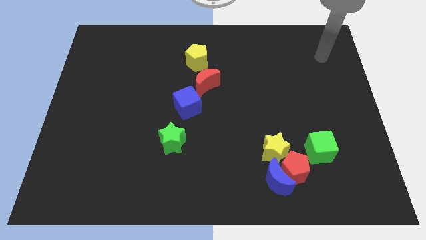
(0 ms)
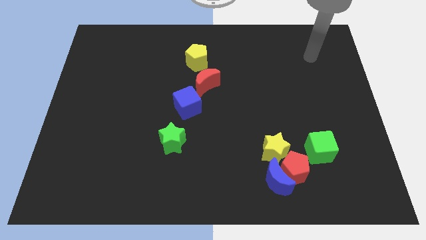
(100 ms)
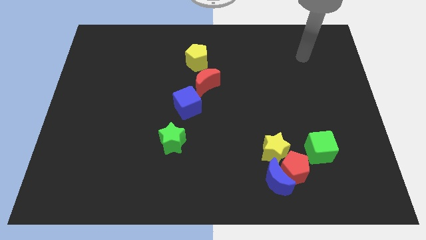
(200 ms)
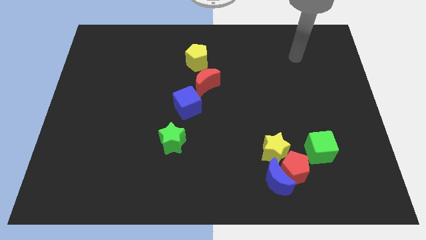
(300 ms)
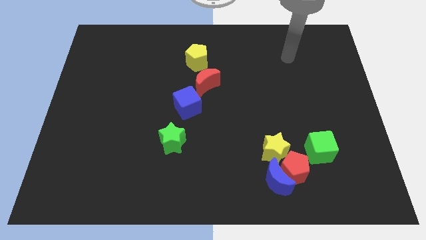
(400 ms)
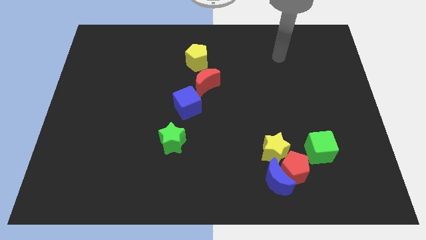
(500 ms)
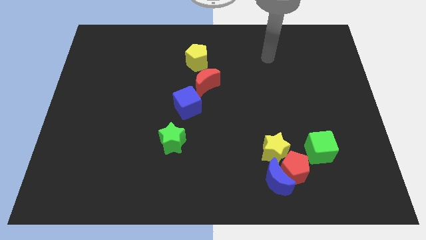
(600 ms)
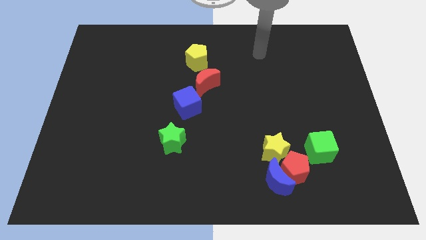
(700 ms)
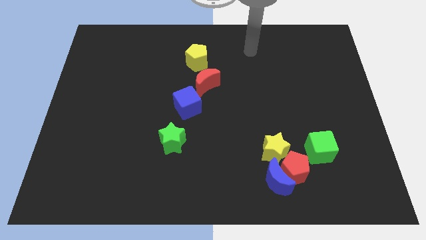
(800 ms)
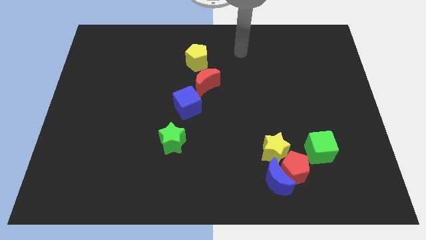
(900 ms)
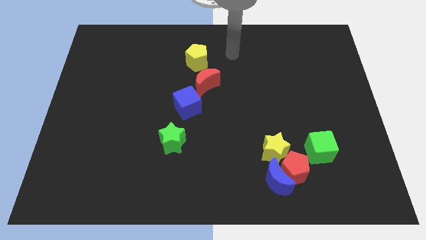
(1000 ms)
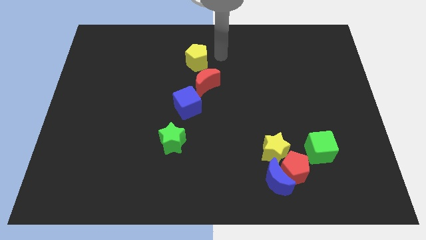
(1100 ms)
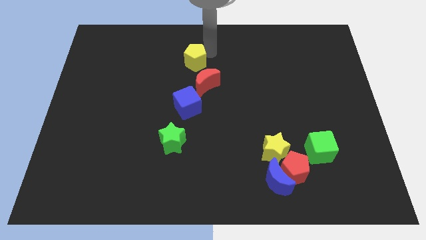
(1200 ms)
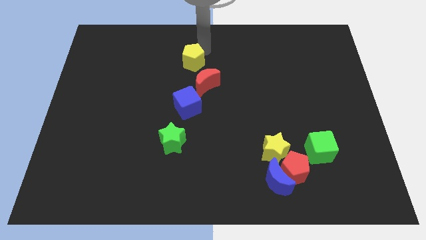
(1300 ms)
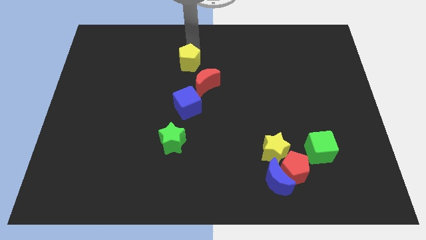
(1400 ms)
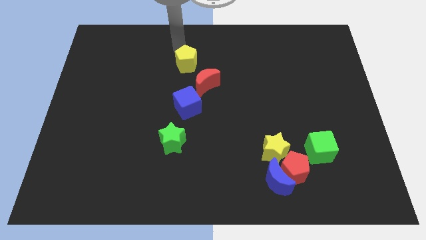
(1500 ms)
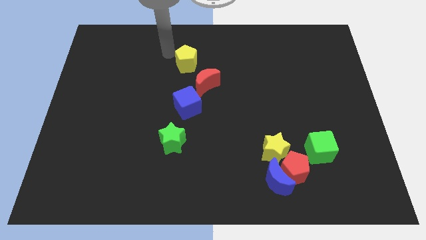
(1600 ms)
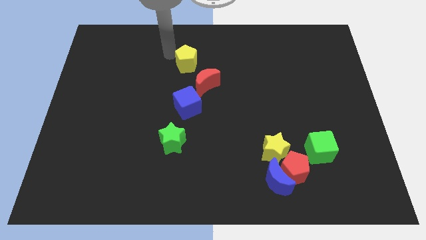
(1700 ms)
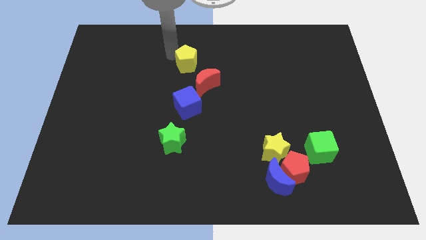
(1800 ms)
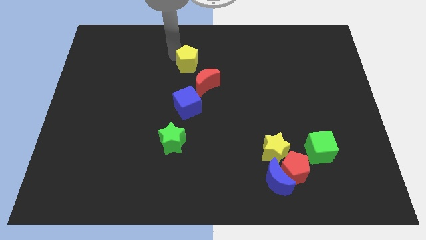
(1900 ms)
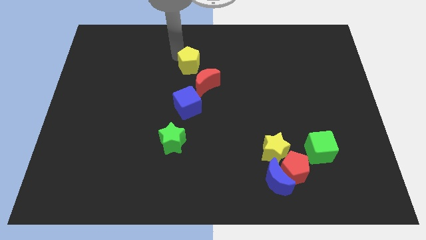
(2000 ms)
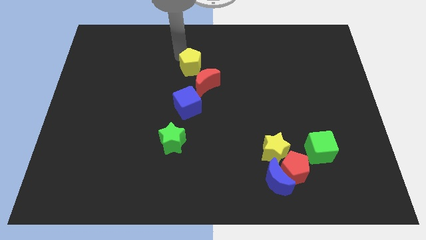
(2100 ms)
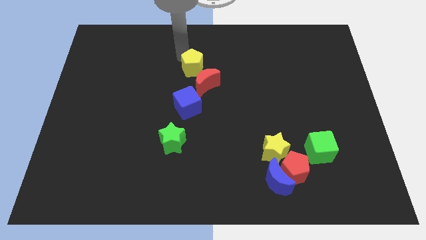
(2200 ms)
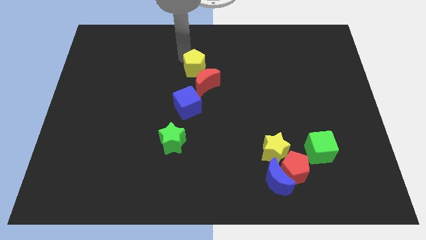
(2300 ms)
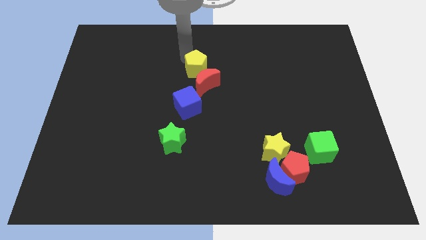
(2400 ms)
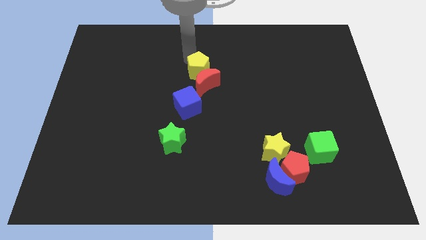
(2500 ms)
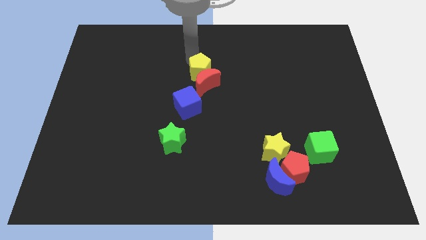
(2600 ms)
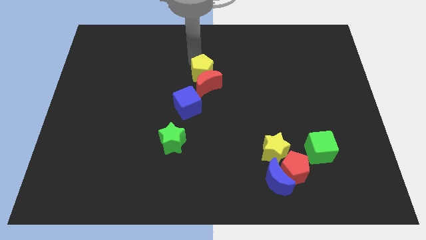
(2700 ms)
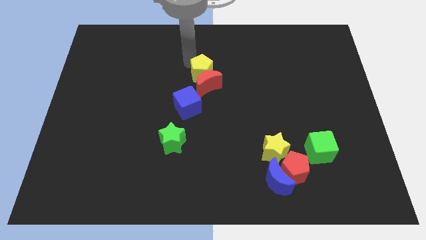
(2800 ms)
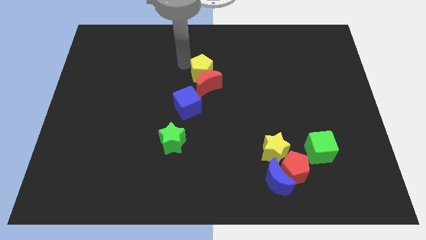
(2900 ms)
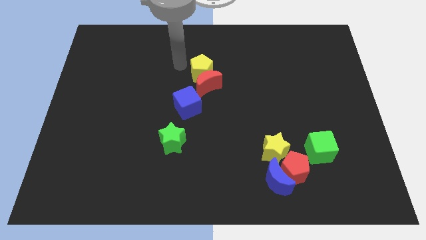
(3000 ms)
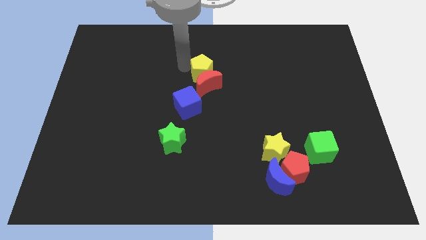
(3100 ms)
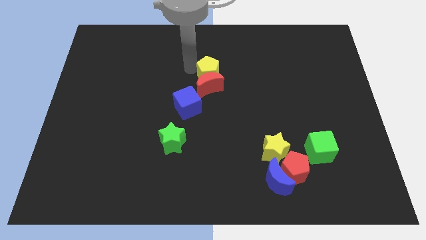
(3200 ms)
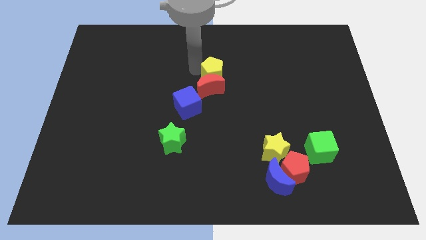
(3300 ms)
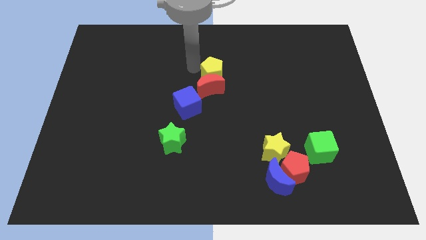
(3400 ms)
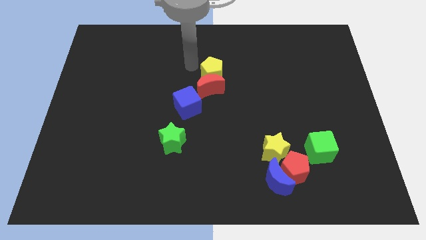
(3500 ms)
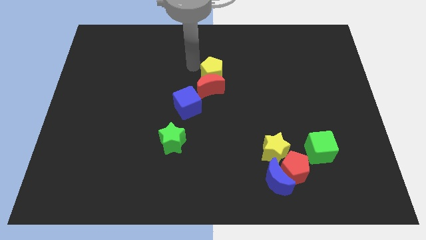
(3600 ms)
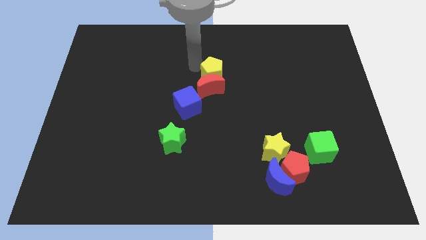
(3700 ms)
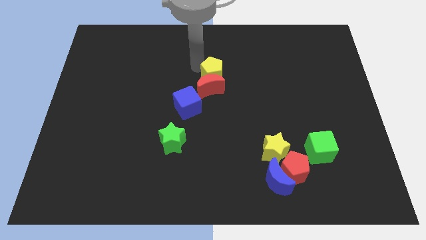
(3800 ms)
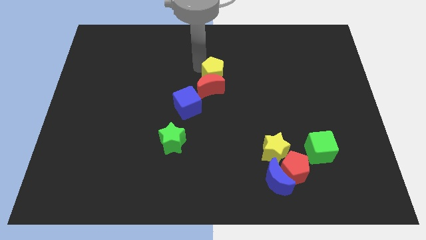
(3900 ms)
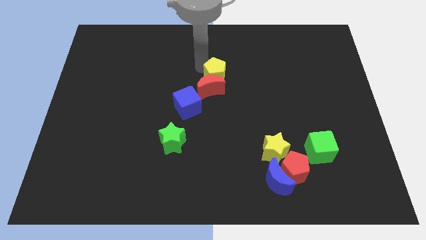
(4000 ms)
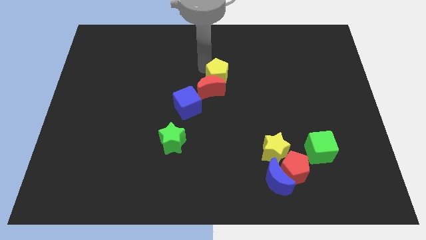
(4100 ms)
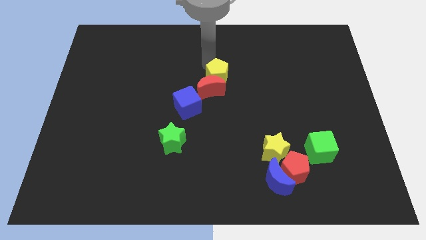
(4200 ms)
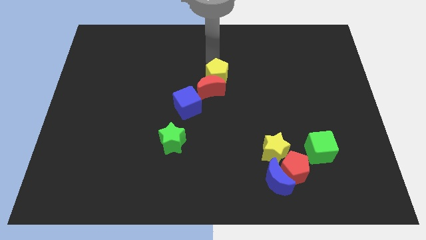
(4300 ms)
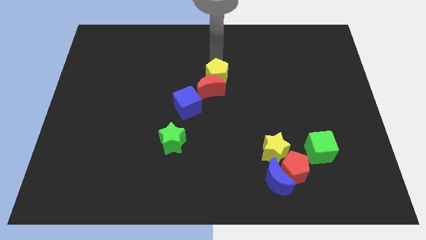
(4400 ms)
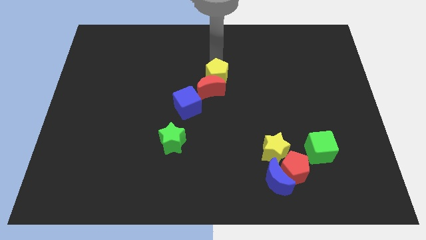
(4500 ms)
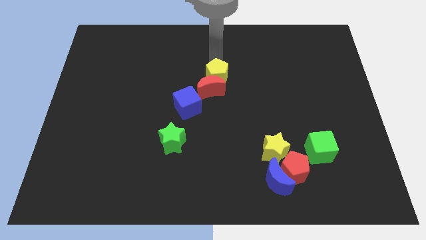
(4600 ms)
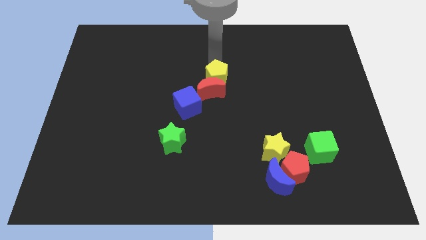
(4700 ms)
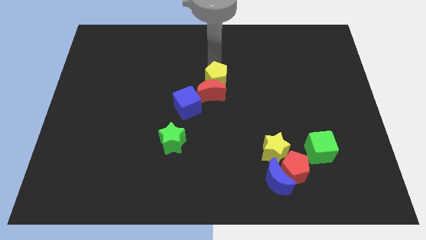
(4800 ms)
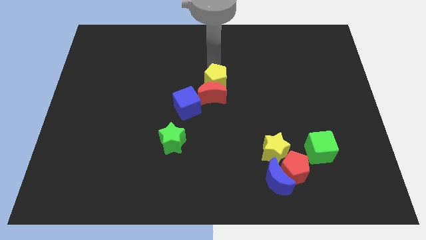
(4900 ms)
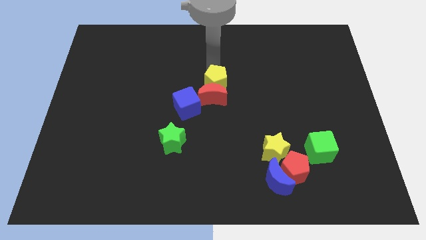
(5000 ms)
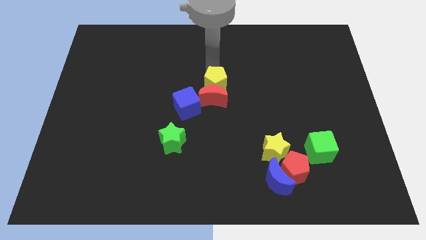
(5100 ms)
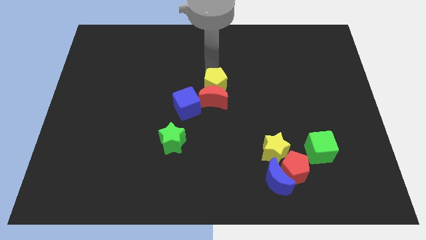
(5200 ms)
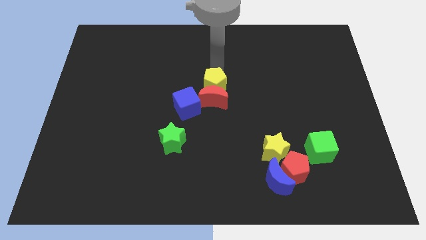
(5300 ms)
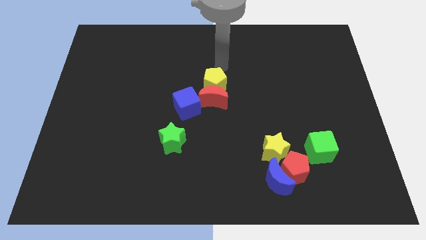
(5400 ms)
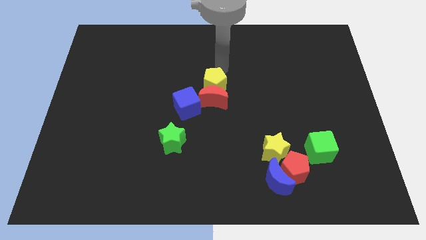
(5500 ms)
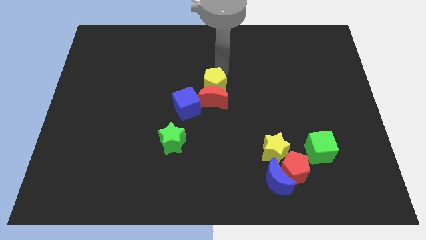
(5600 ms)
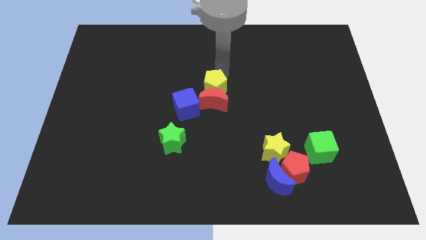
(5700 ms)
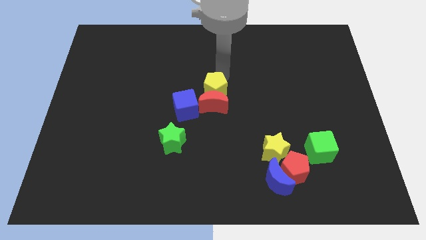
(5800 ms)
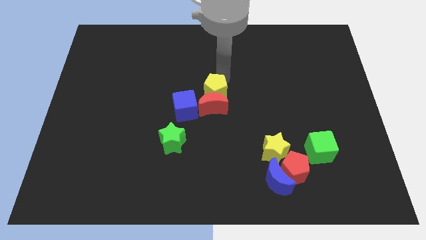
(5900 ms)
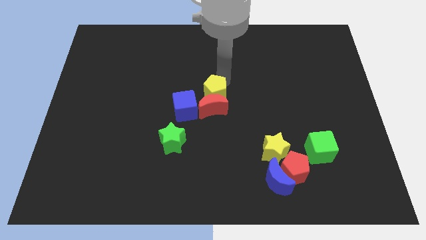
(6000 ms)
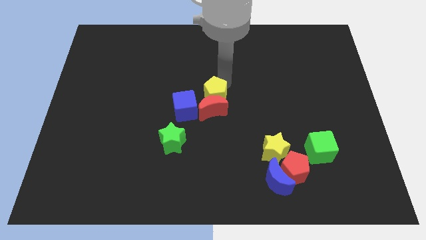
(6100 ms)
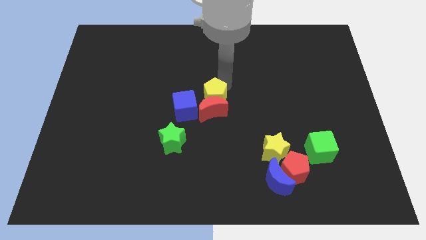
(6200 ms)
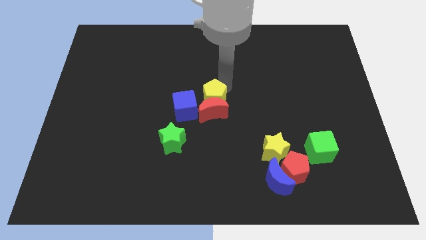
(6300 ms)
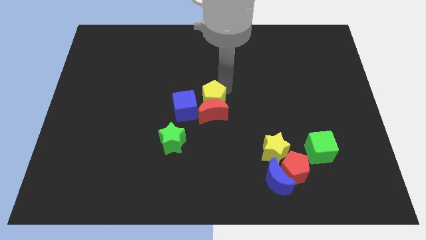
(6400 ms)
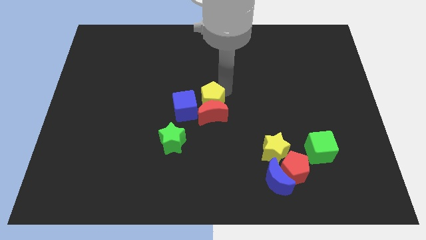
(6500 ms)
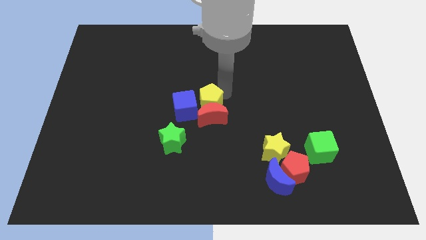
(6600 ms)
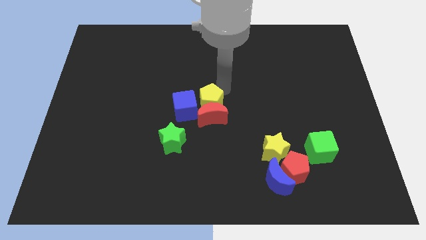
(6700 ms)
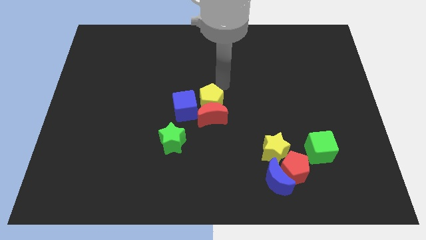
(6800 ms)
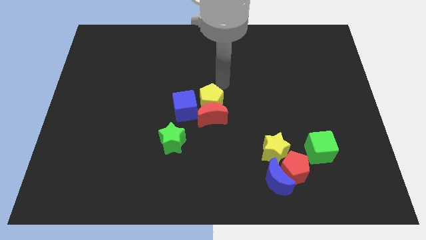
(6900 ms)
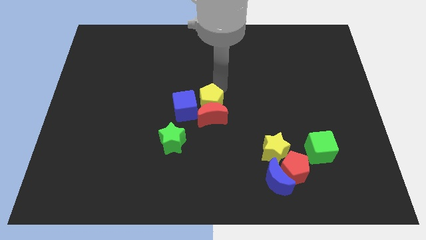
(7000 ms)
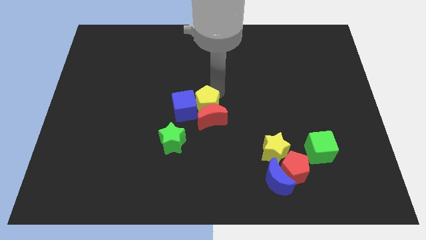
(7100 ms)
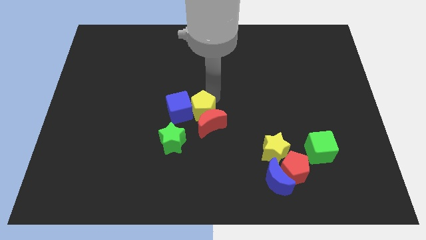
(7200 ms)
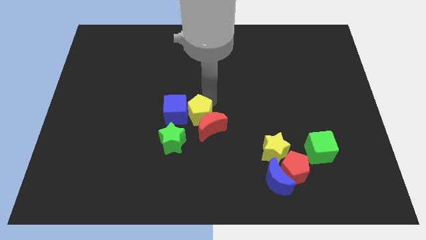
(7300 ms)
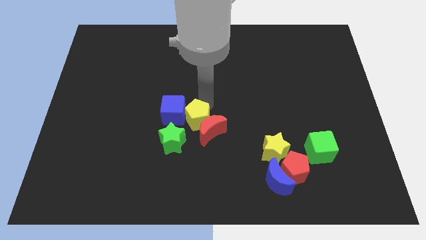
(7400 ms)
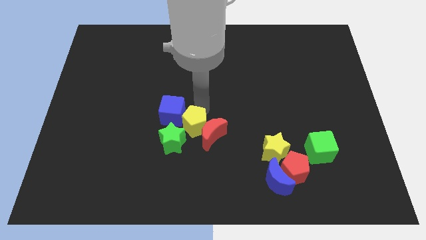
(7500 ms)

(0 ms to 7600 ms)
slide the yellow pentagon downwards

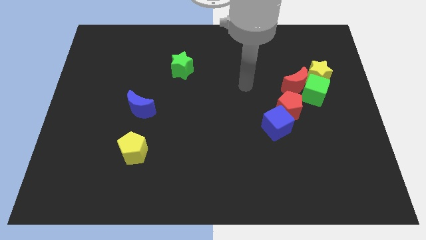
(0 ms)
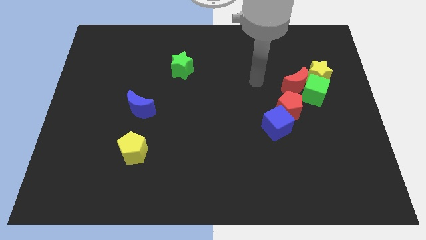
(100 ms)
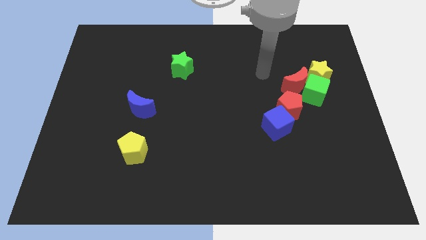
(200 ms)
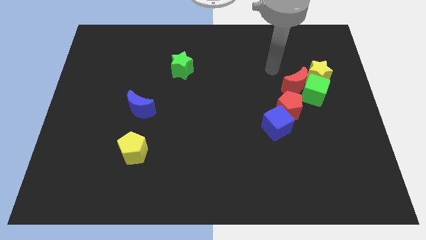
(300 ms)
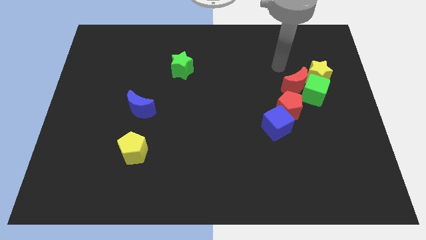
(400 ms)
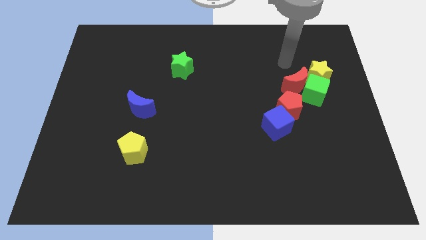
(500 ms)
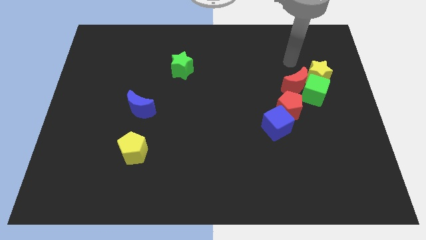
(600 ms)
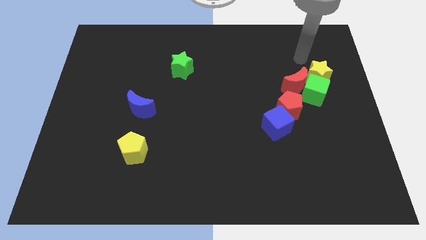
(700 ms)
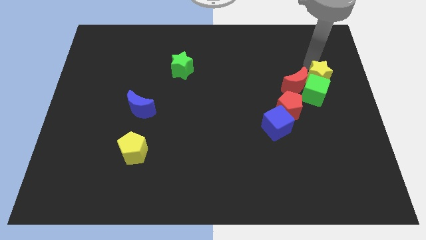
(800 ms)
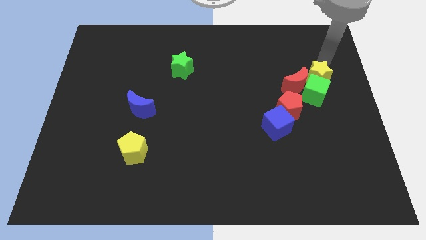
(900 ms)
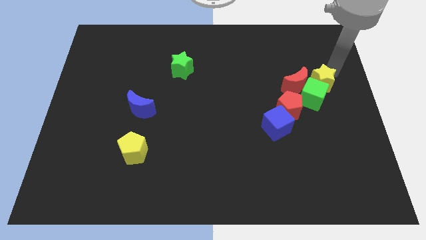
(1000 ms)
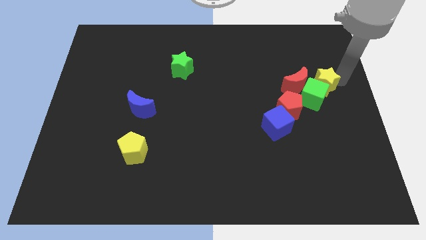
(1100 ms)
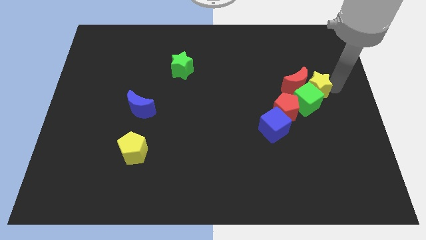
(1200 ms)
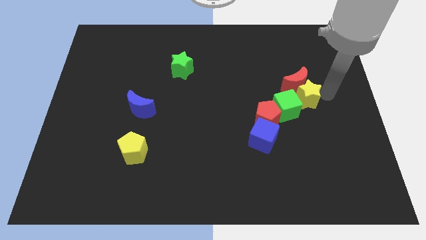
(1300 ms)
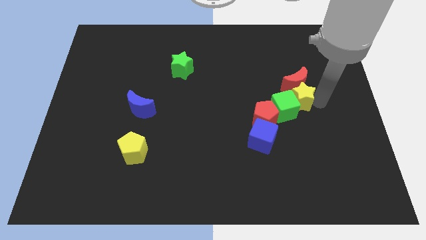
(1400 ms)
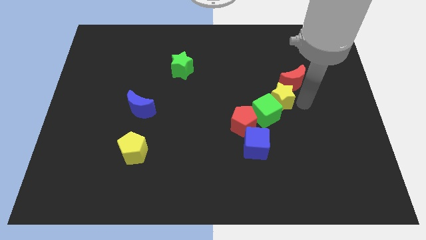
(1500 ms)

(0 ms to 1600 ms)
push the red pentagon down and to the left diagonally slightly
